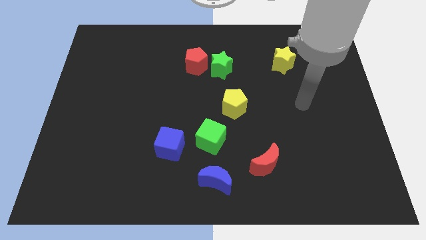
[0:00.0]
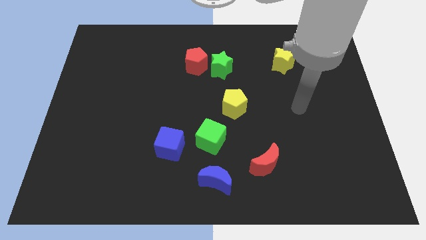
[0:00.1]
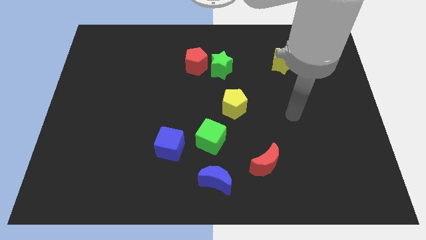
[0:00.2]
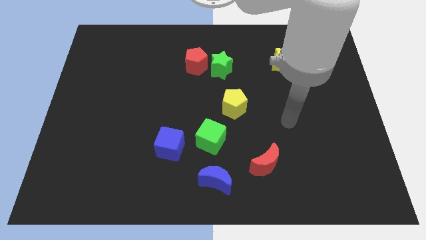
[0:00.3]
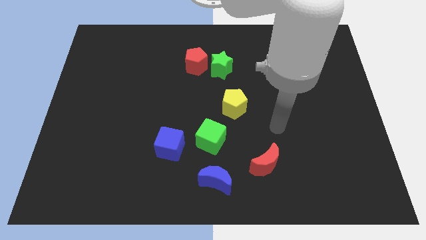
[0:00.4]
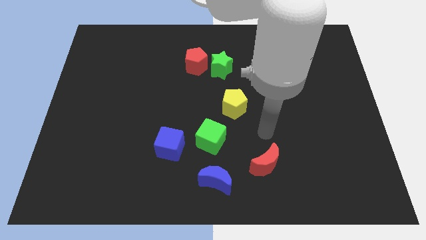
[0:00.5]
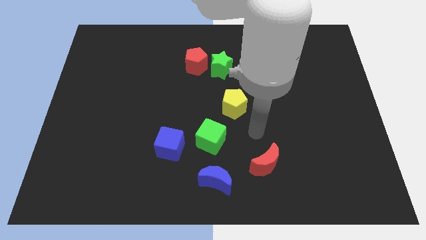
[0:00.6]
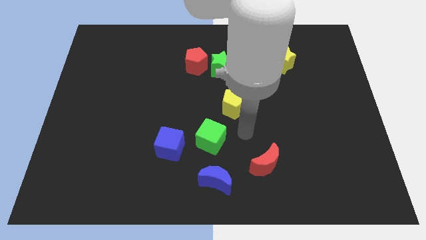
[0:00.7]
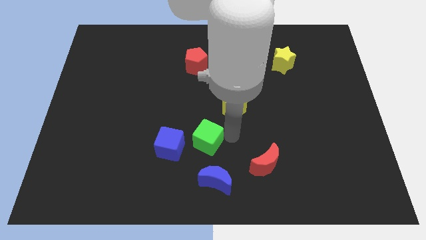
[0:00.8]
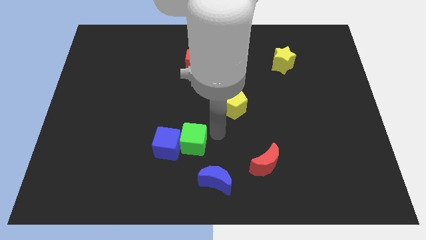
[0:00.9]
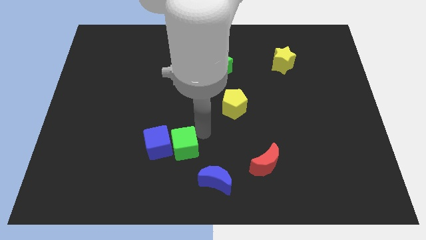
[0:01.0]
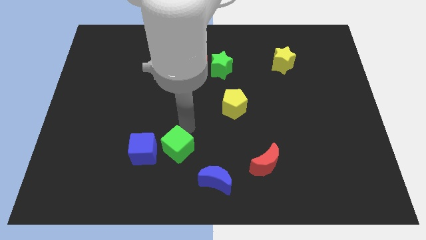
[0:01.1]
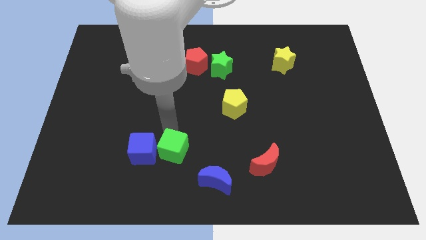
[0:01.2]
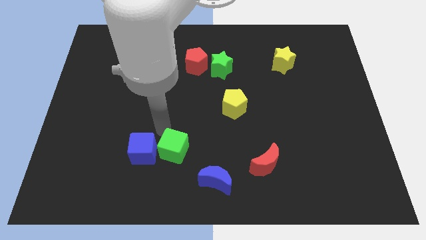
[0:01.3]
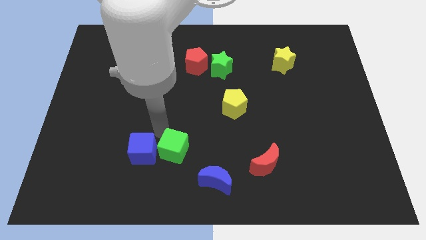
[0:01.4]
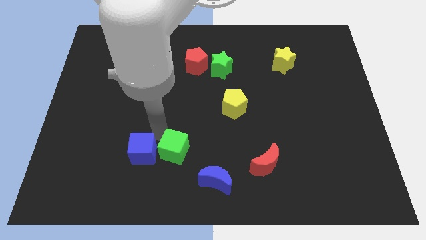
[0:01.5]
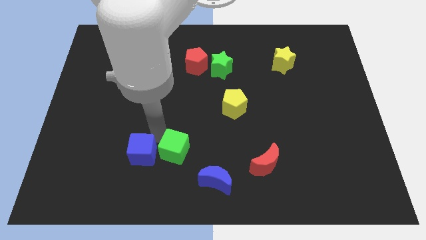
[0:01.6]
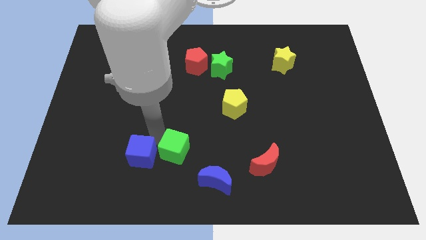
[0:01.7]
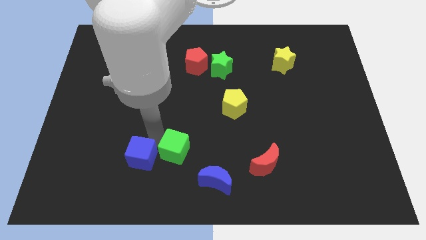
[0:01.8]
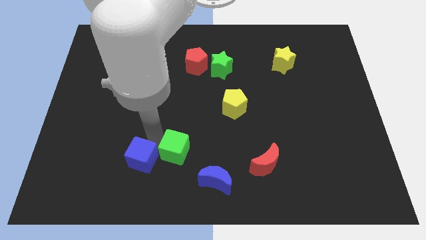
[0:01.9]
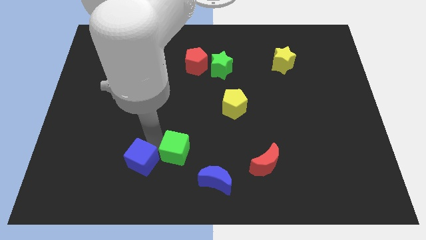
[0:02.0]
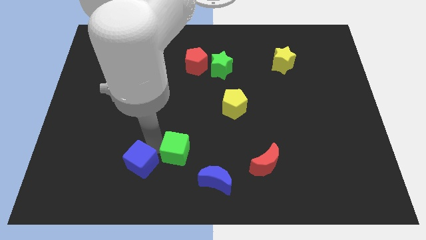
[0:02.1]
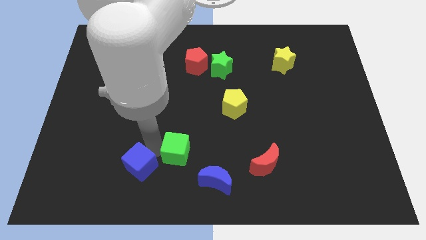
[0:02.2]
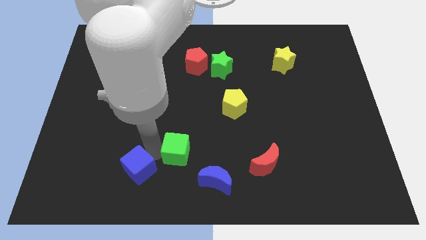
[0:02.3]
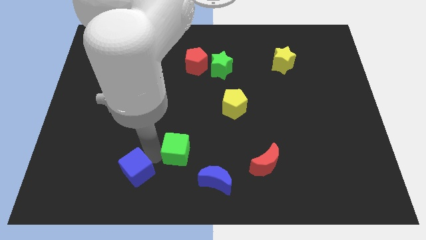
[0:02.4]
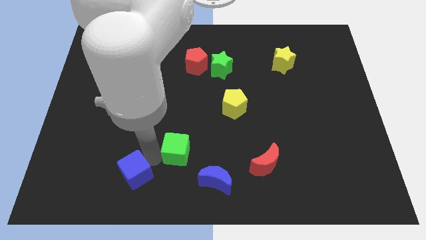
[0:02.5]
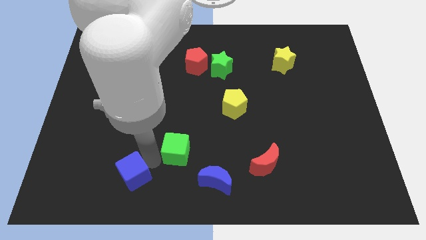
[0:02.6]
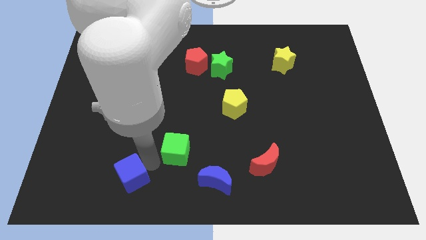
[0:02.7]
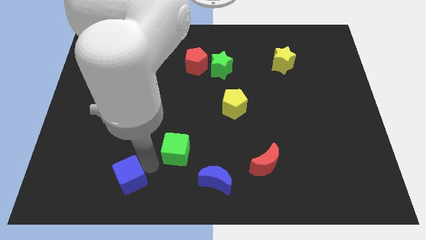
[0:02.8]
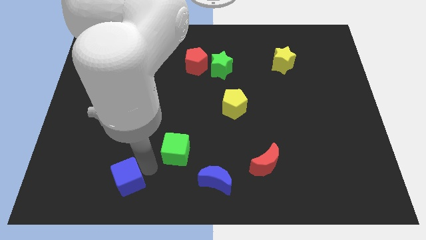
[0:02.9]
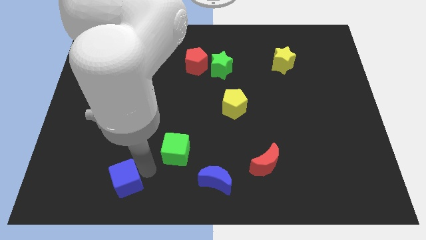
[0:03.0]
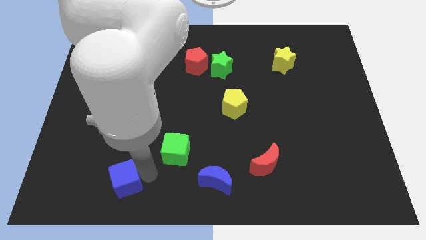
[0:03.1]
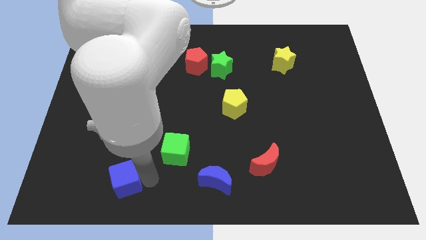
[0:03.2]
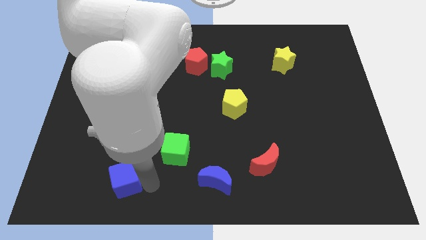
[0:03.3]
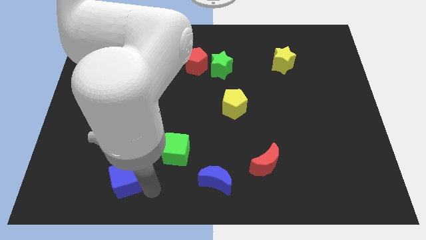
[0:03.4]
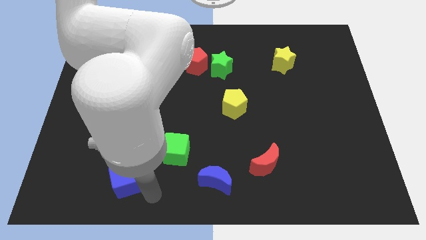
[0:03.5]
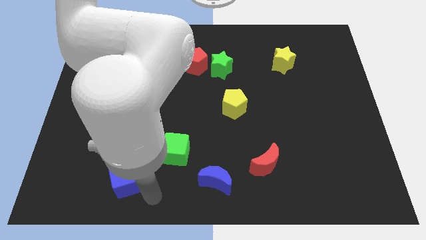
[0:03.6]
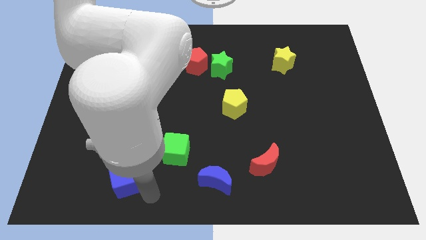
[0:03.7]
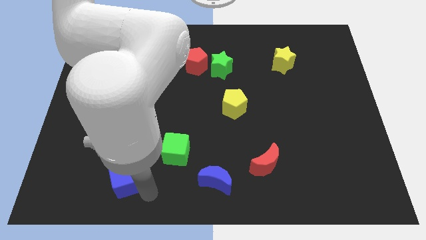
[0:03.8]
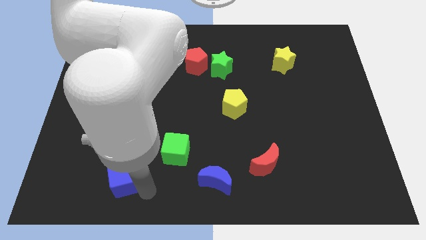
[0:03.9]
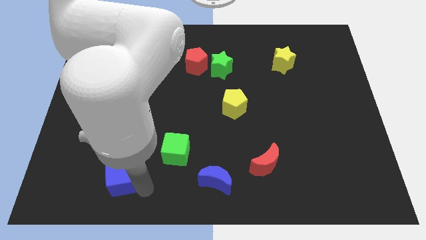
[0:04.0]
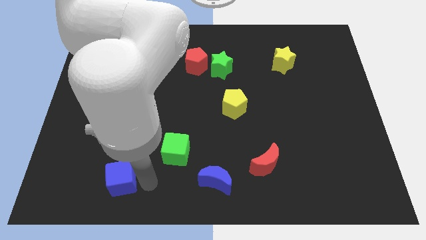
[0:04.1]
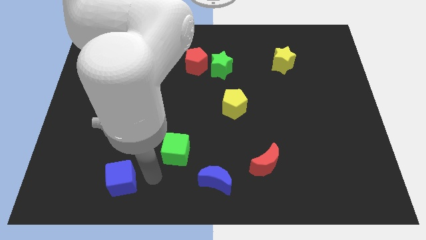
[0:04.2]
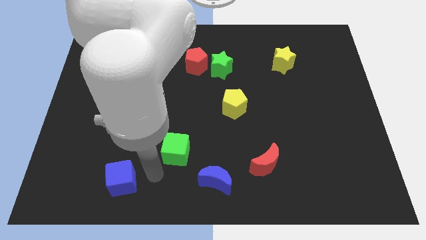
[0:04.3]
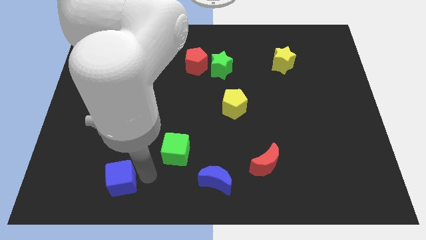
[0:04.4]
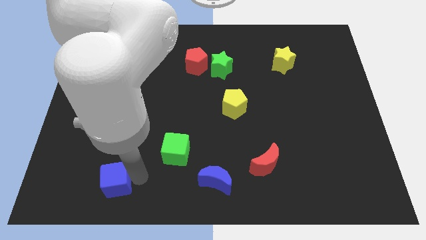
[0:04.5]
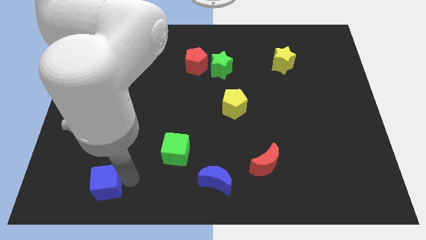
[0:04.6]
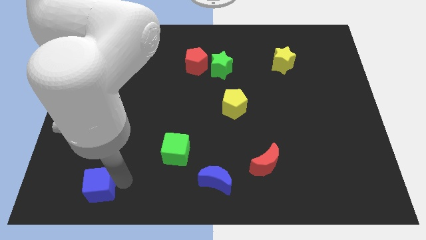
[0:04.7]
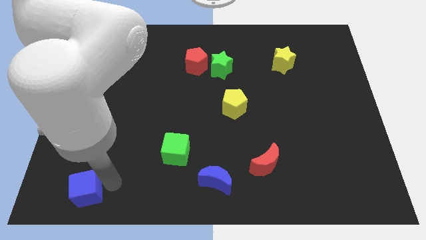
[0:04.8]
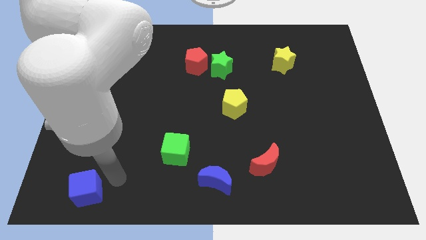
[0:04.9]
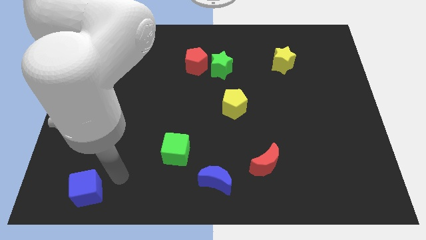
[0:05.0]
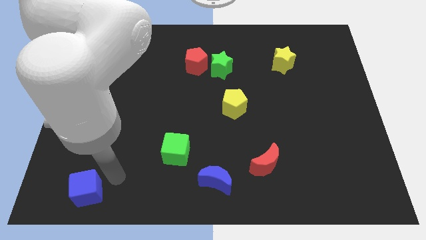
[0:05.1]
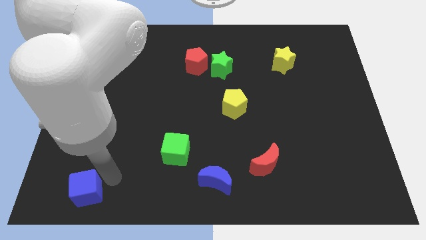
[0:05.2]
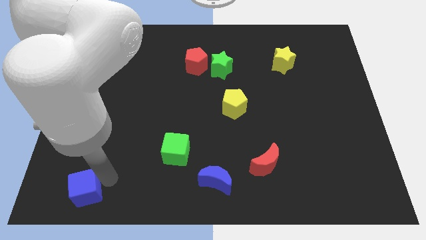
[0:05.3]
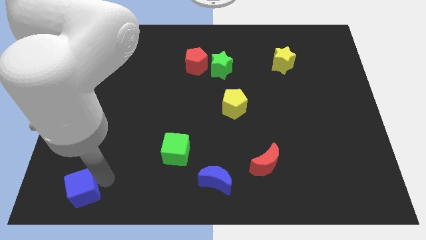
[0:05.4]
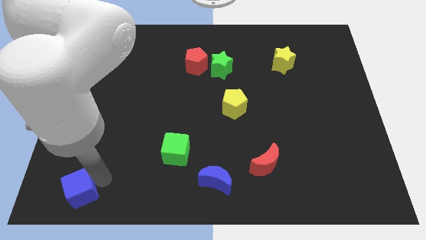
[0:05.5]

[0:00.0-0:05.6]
slide the blue cube to the bottom left corner
